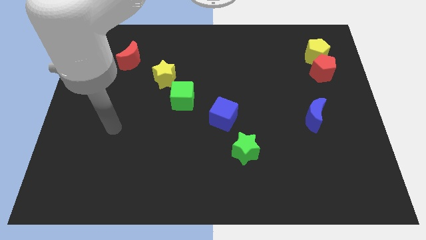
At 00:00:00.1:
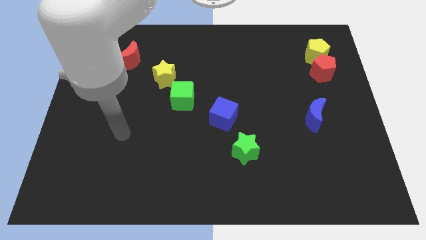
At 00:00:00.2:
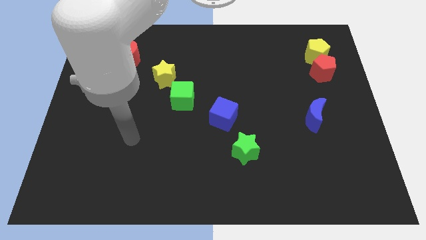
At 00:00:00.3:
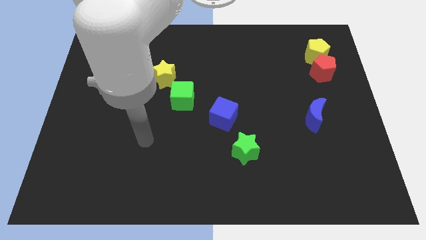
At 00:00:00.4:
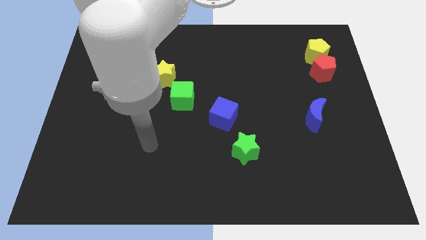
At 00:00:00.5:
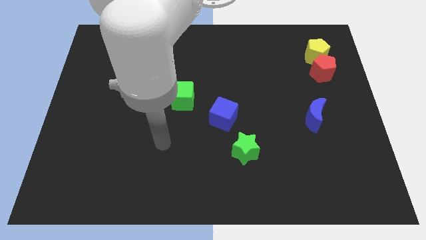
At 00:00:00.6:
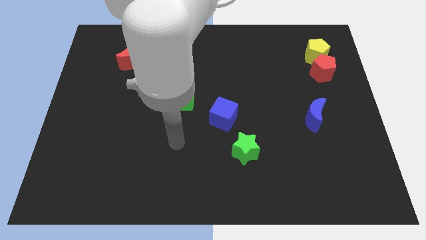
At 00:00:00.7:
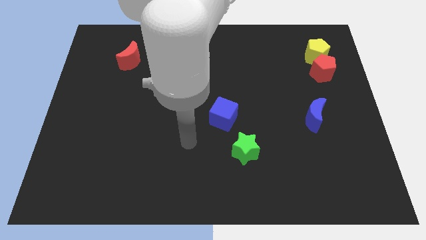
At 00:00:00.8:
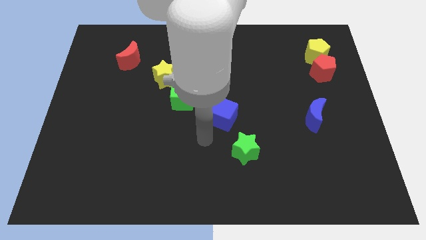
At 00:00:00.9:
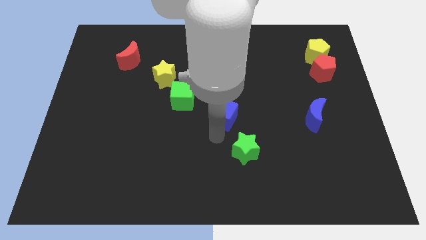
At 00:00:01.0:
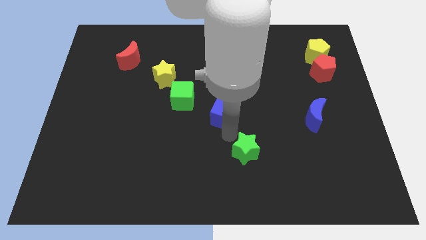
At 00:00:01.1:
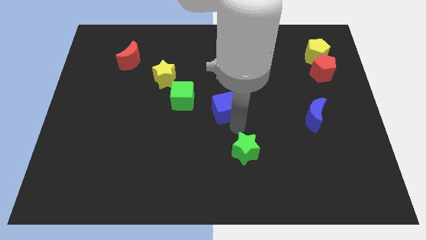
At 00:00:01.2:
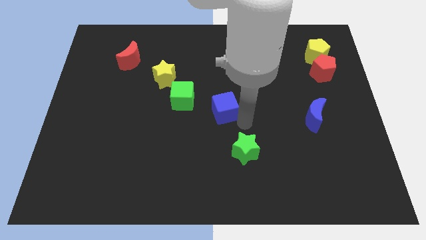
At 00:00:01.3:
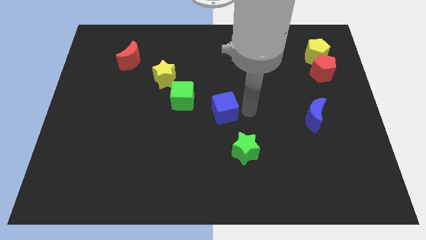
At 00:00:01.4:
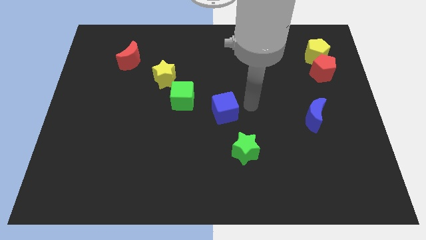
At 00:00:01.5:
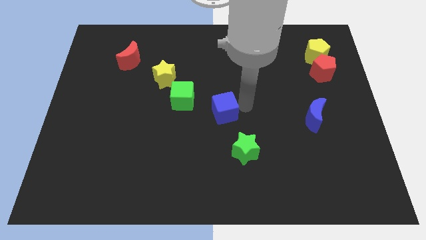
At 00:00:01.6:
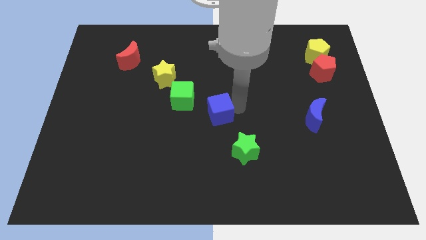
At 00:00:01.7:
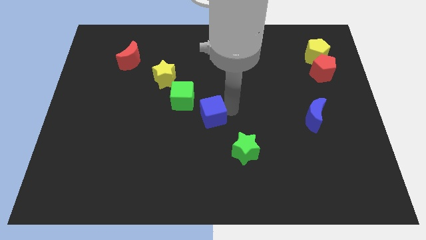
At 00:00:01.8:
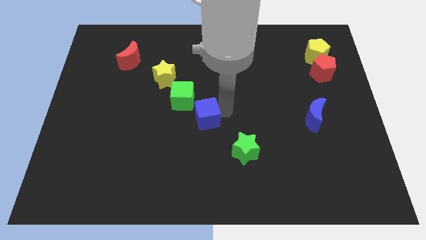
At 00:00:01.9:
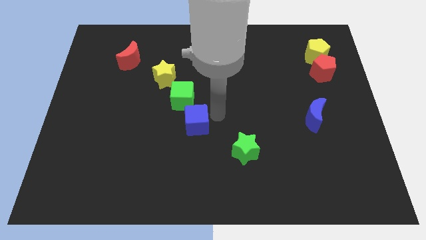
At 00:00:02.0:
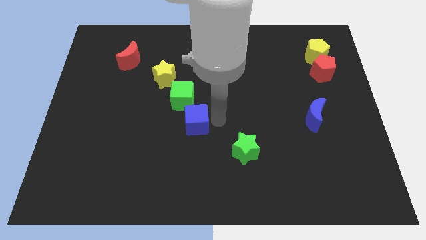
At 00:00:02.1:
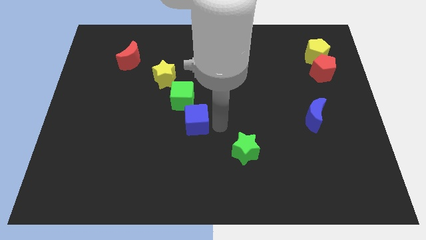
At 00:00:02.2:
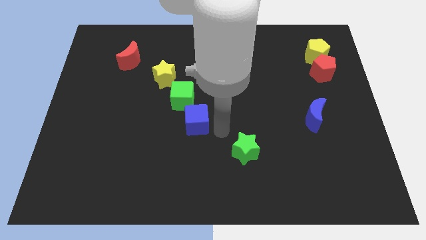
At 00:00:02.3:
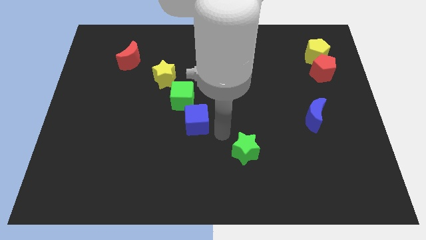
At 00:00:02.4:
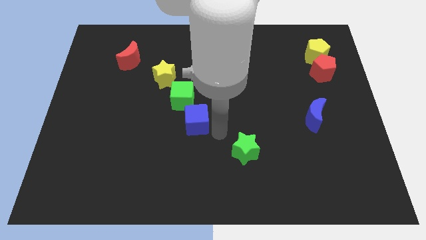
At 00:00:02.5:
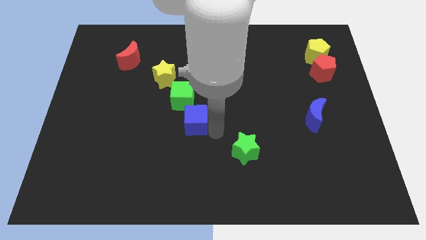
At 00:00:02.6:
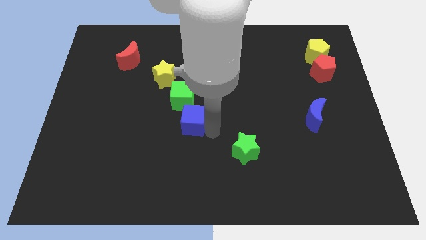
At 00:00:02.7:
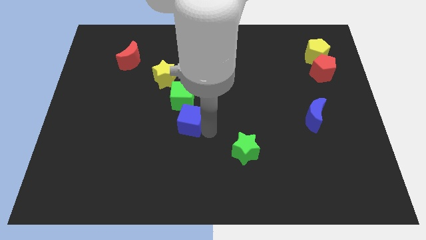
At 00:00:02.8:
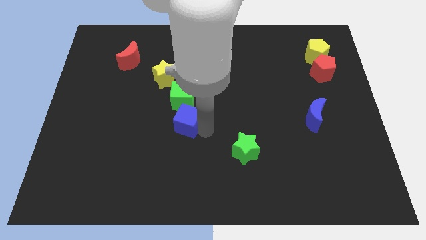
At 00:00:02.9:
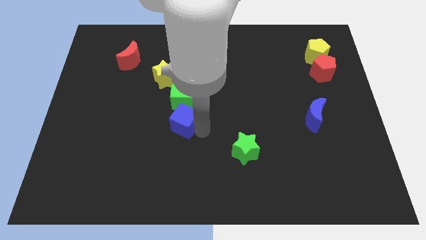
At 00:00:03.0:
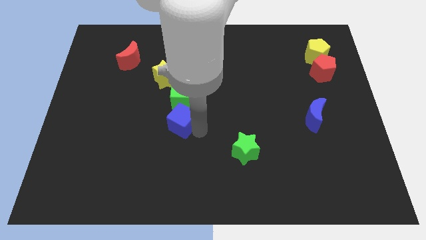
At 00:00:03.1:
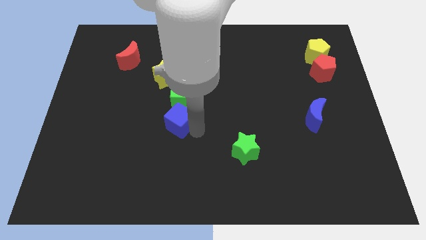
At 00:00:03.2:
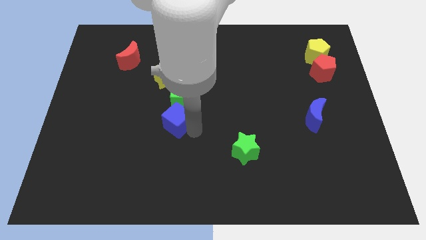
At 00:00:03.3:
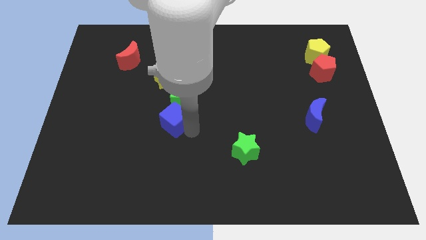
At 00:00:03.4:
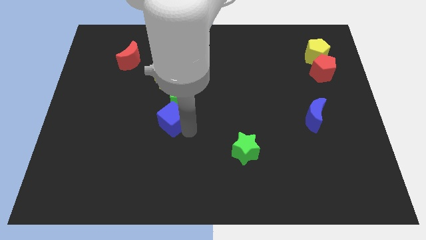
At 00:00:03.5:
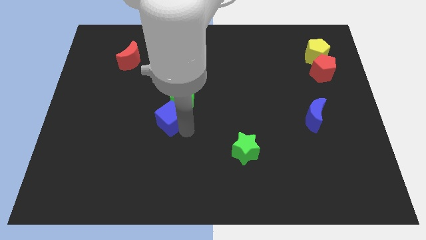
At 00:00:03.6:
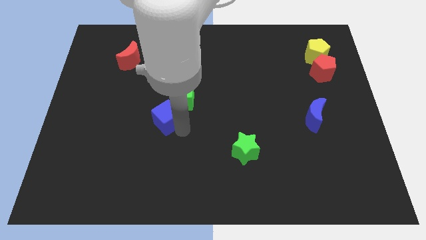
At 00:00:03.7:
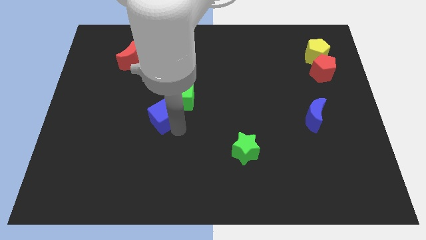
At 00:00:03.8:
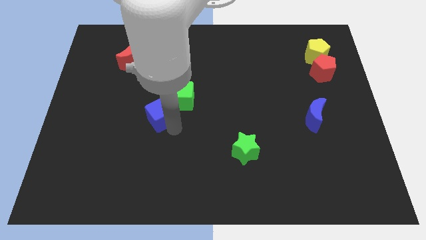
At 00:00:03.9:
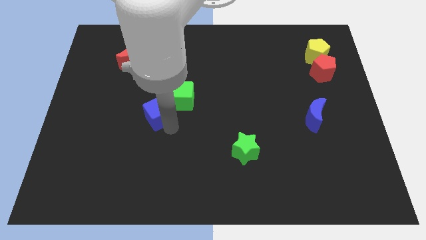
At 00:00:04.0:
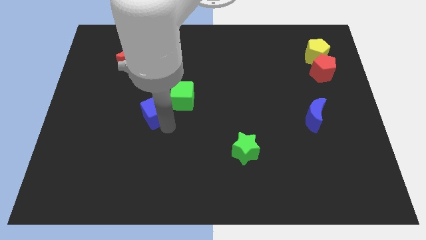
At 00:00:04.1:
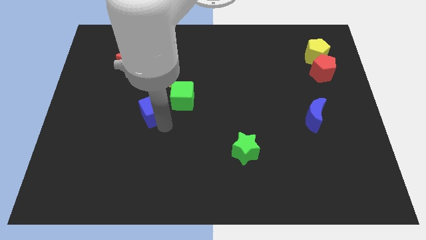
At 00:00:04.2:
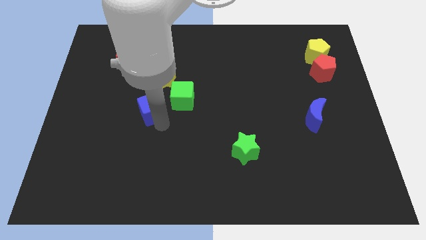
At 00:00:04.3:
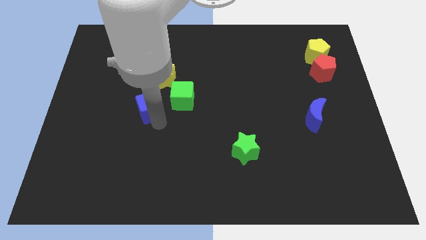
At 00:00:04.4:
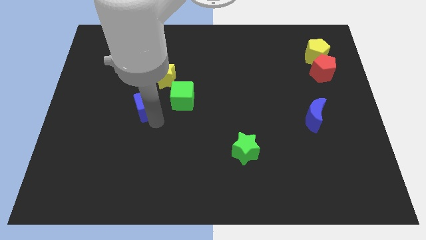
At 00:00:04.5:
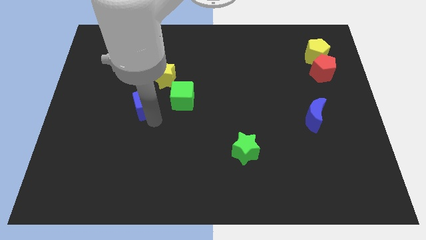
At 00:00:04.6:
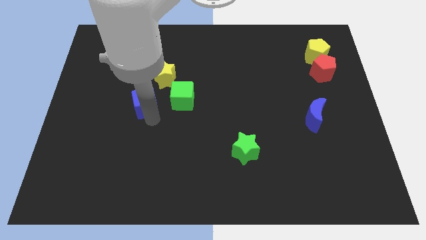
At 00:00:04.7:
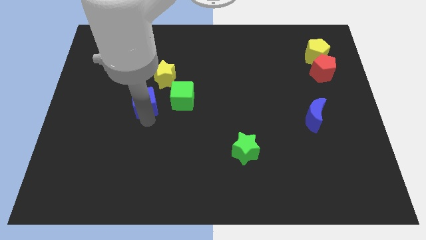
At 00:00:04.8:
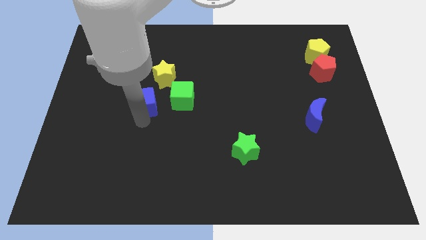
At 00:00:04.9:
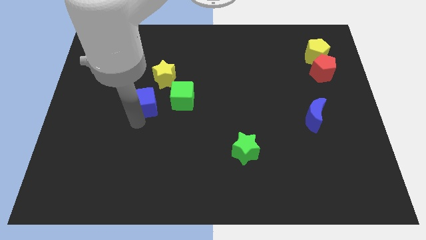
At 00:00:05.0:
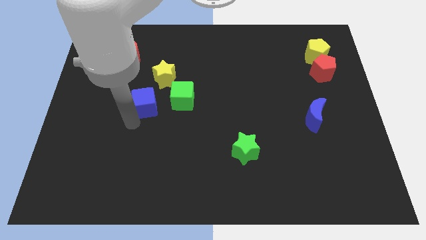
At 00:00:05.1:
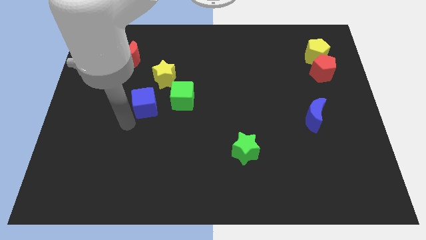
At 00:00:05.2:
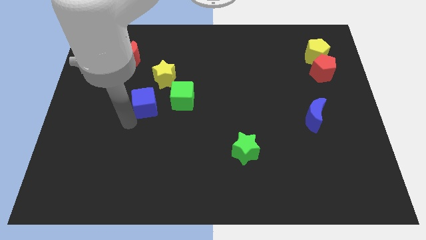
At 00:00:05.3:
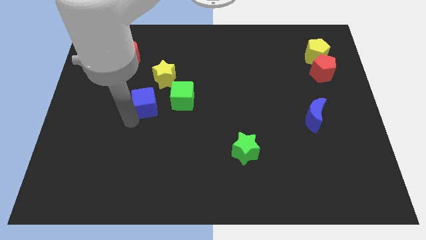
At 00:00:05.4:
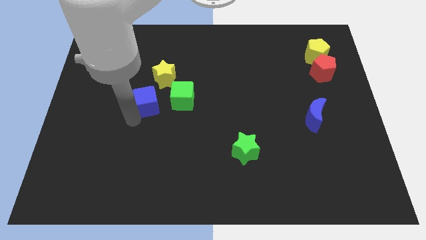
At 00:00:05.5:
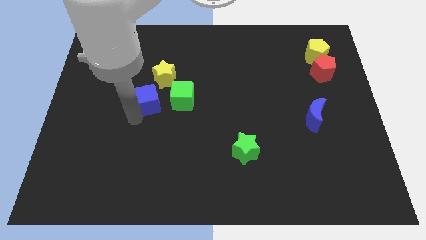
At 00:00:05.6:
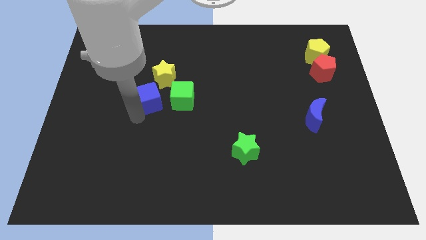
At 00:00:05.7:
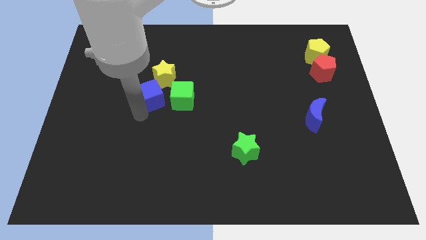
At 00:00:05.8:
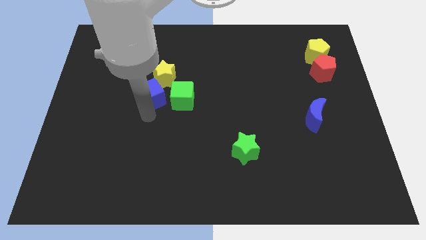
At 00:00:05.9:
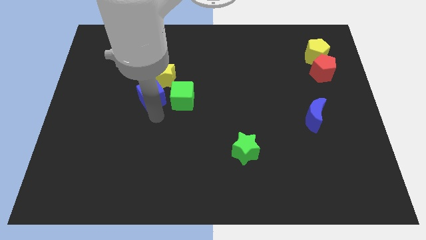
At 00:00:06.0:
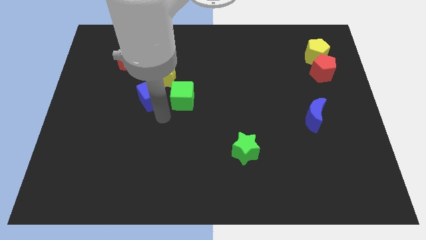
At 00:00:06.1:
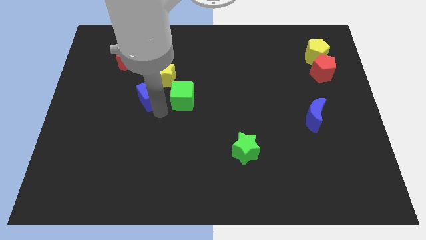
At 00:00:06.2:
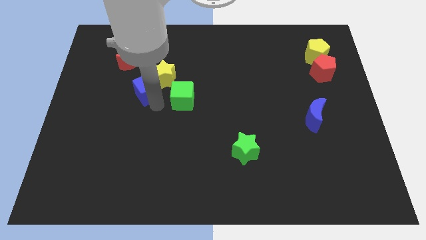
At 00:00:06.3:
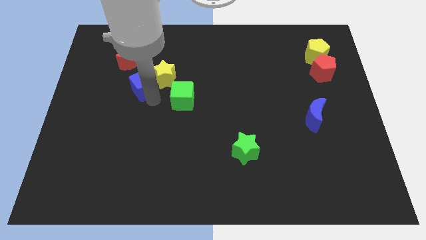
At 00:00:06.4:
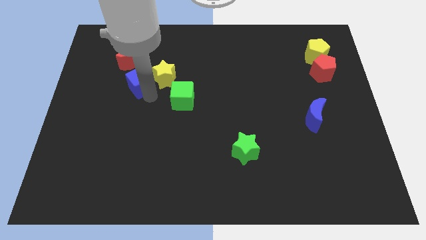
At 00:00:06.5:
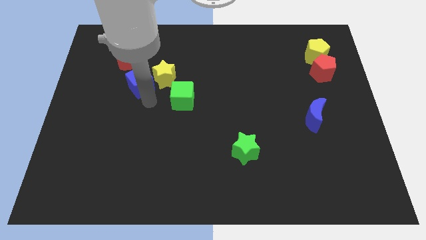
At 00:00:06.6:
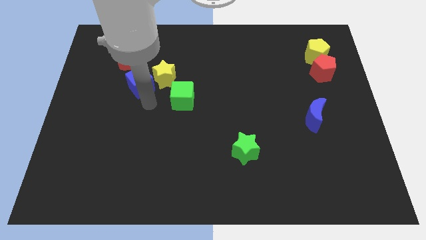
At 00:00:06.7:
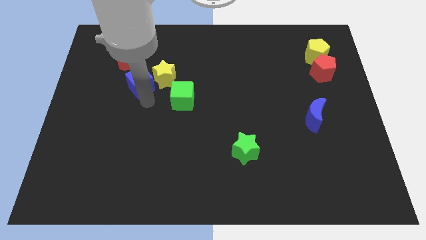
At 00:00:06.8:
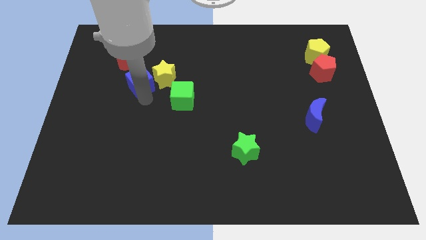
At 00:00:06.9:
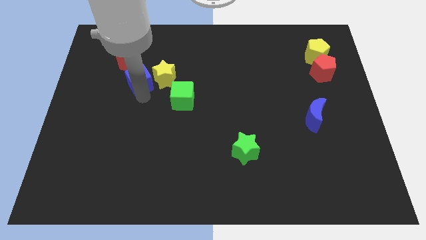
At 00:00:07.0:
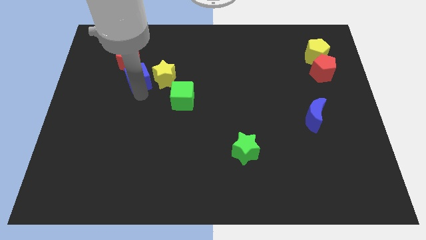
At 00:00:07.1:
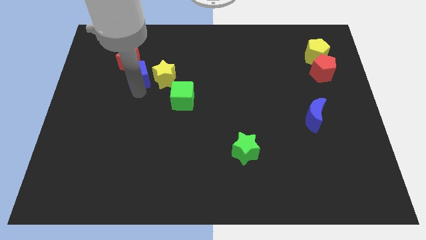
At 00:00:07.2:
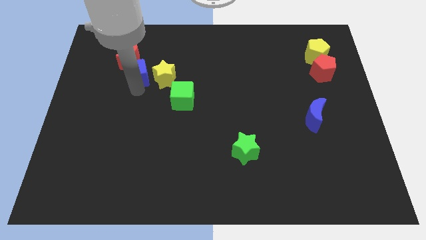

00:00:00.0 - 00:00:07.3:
move the blue cube next to the red moon

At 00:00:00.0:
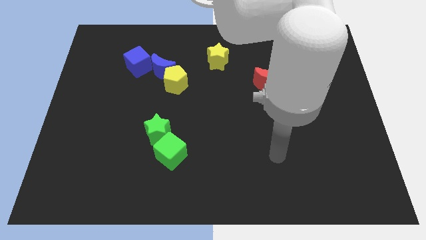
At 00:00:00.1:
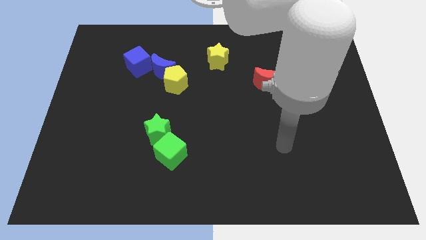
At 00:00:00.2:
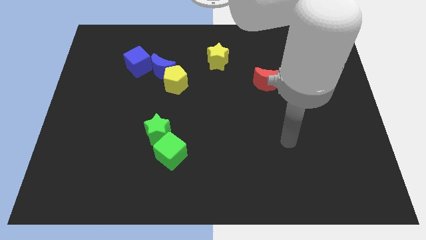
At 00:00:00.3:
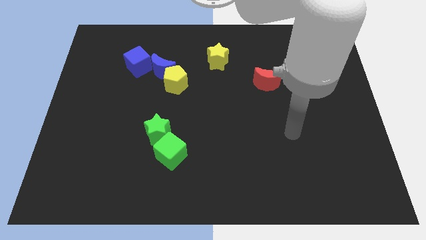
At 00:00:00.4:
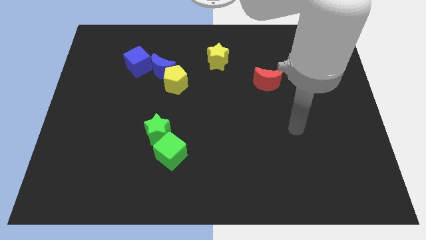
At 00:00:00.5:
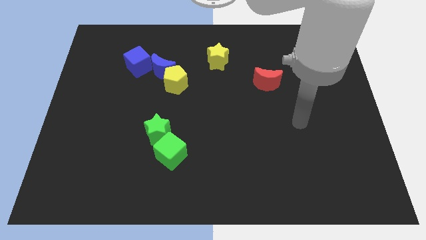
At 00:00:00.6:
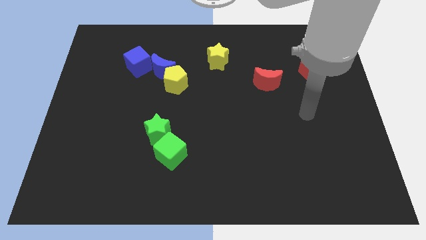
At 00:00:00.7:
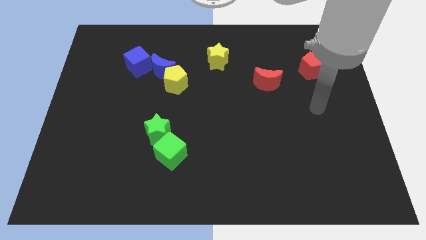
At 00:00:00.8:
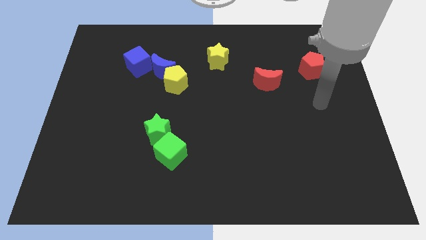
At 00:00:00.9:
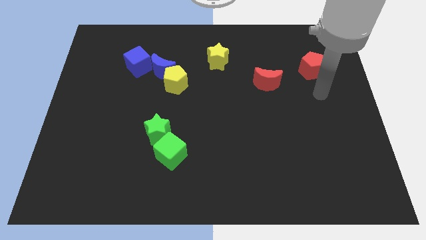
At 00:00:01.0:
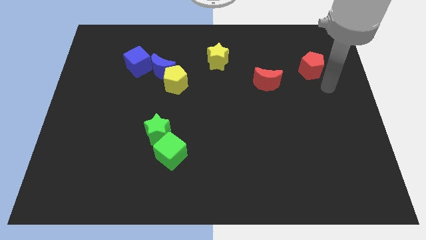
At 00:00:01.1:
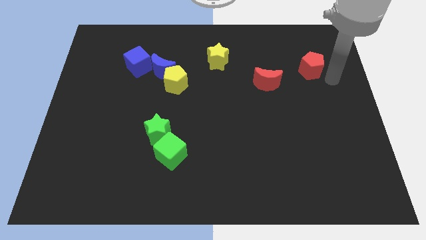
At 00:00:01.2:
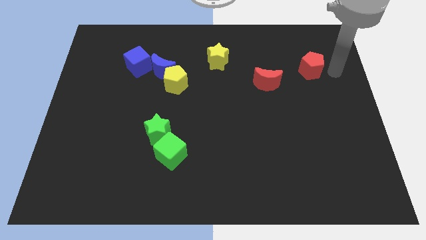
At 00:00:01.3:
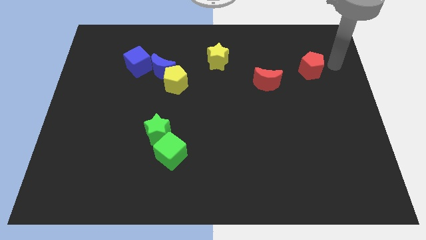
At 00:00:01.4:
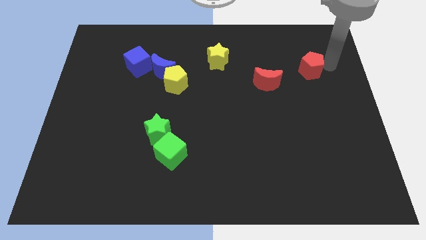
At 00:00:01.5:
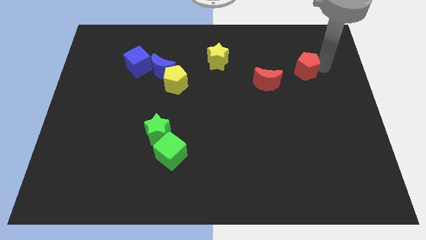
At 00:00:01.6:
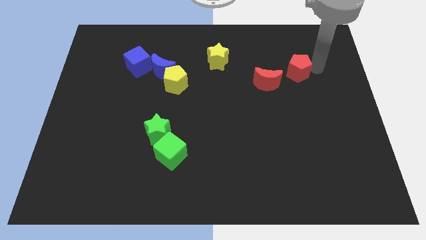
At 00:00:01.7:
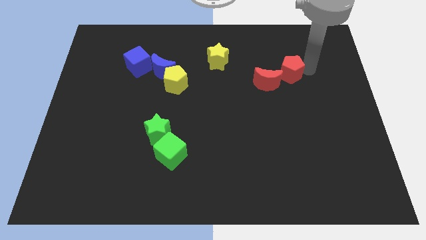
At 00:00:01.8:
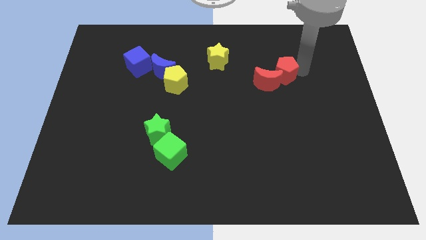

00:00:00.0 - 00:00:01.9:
move the red pentagon close to the red moon
